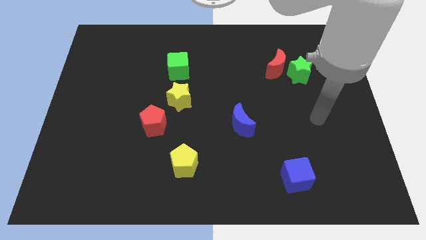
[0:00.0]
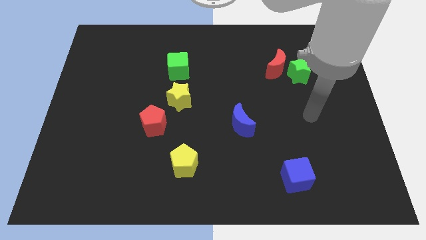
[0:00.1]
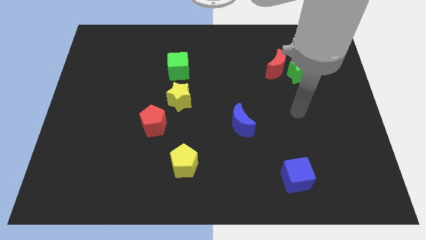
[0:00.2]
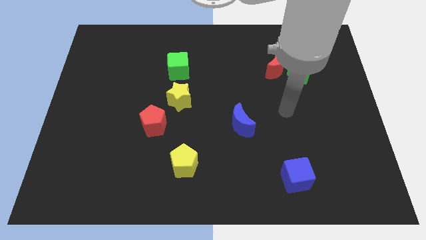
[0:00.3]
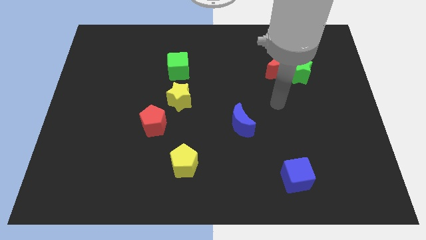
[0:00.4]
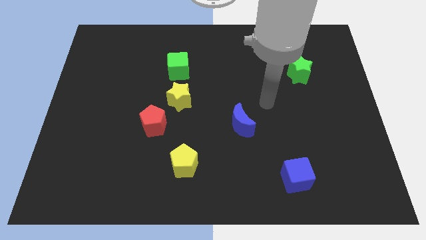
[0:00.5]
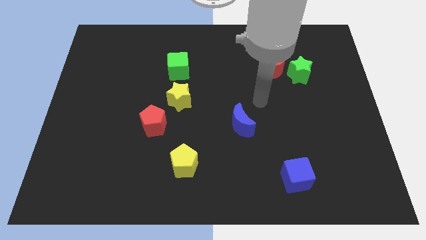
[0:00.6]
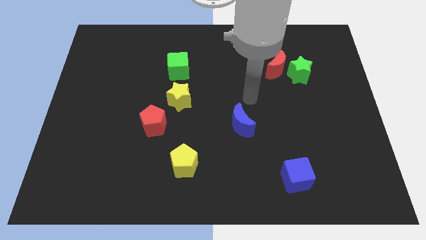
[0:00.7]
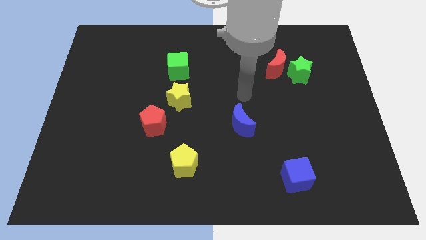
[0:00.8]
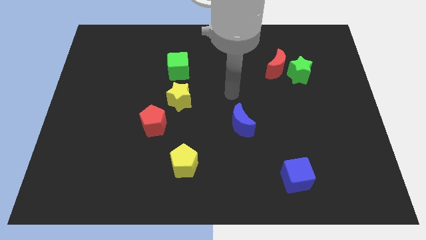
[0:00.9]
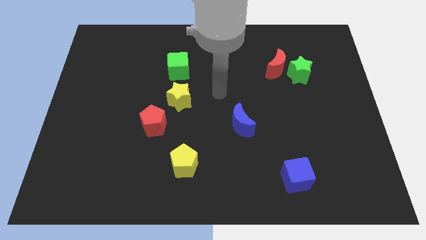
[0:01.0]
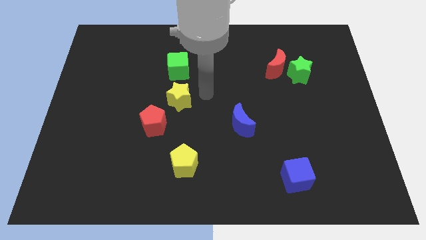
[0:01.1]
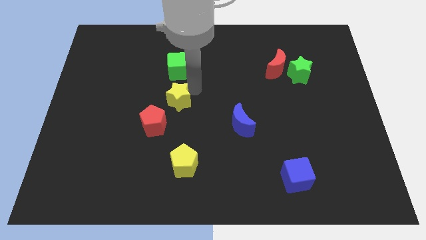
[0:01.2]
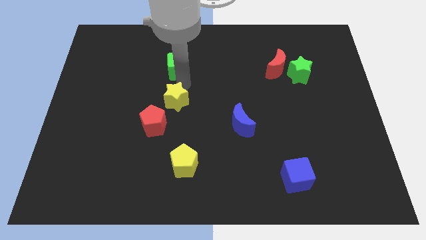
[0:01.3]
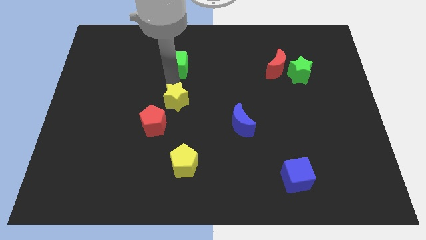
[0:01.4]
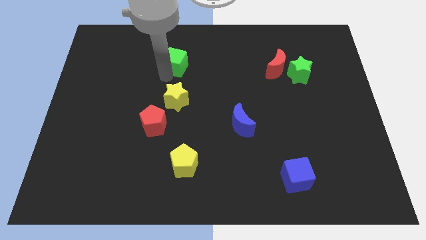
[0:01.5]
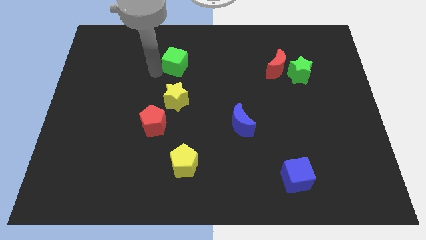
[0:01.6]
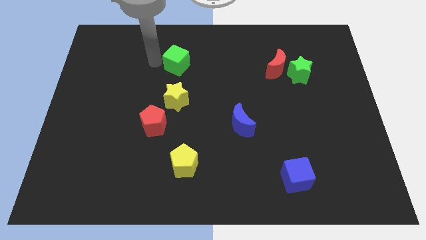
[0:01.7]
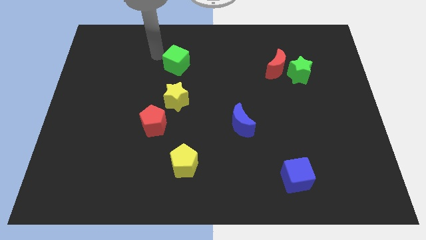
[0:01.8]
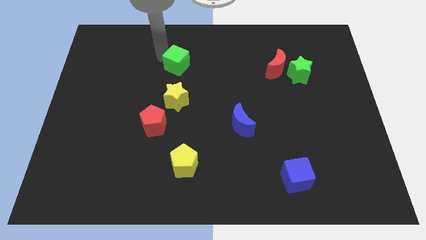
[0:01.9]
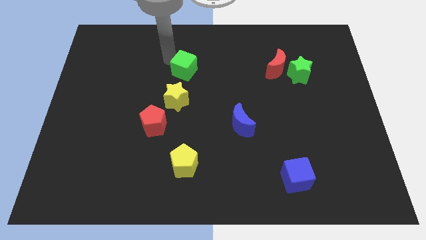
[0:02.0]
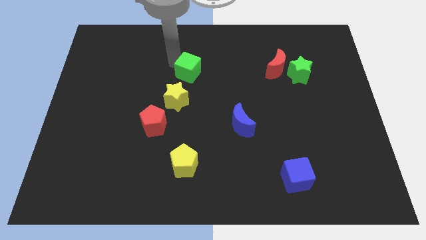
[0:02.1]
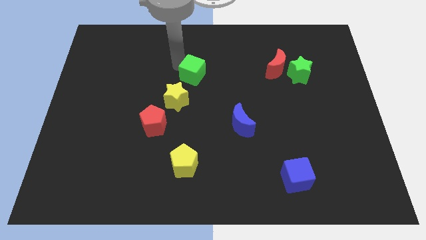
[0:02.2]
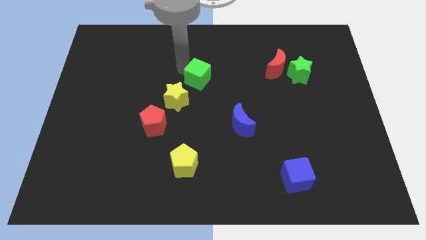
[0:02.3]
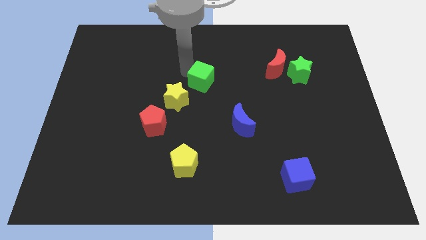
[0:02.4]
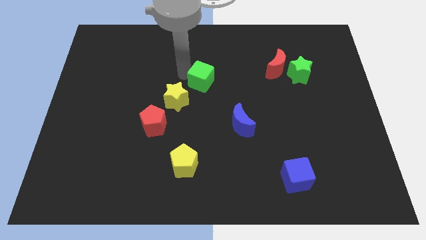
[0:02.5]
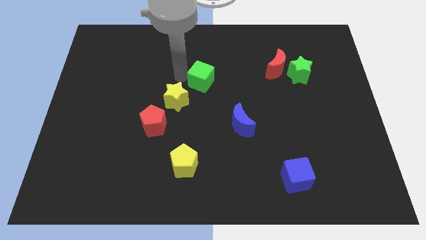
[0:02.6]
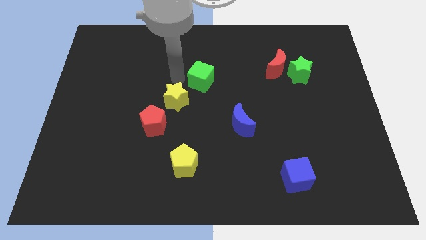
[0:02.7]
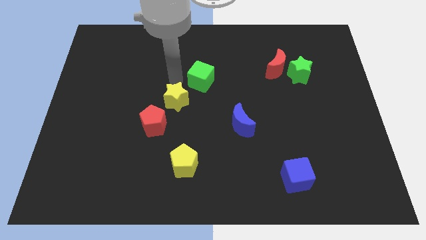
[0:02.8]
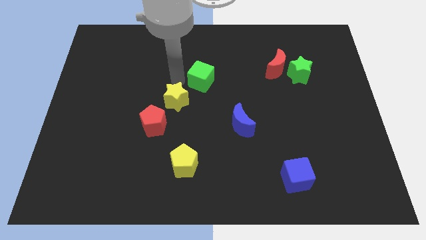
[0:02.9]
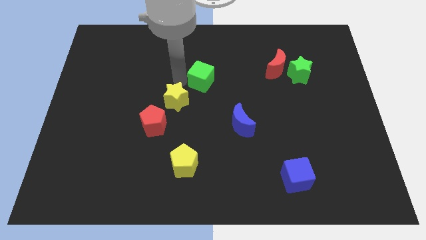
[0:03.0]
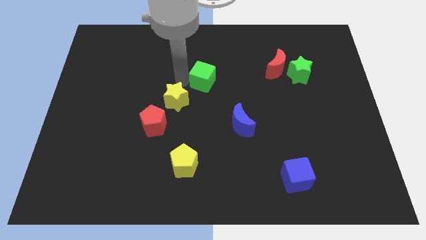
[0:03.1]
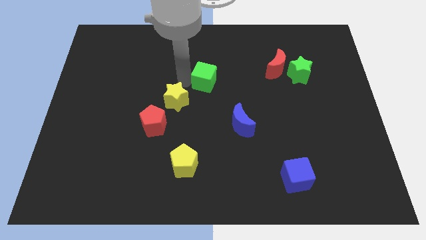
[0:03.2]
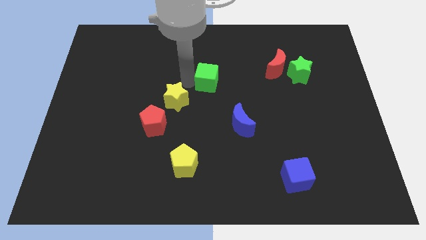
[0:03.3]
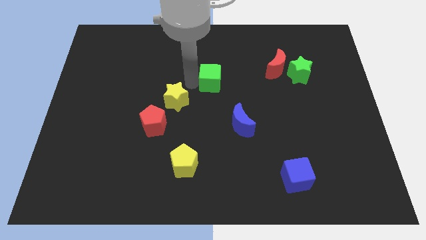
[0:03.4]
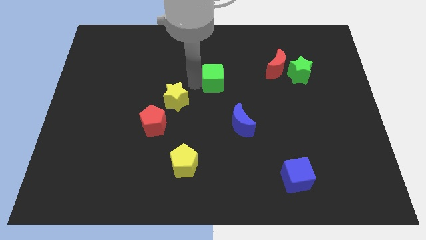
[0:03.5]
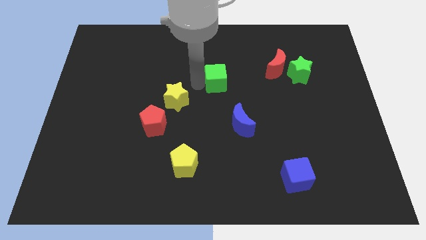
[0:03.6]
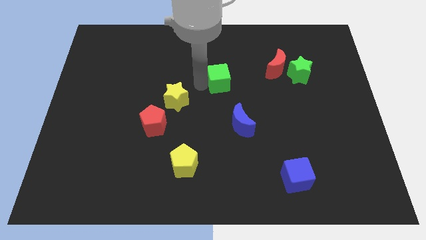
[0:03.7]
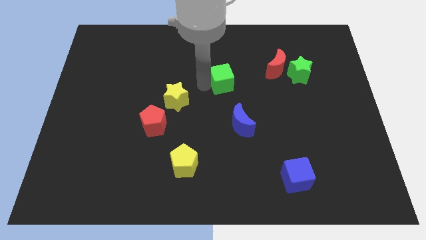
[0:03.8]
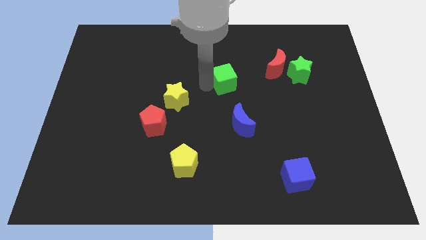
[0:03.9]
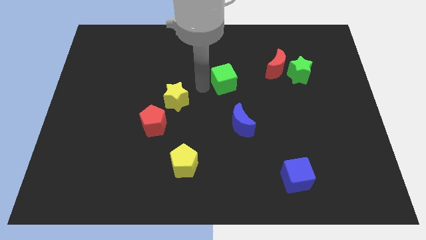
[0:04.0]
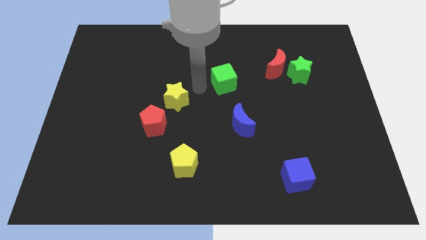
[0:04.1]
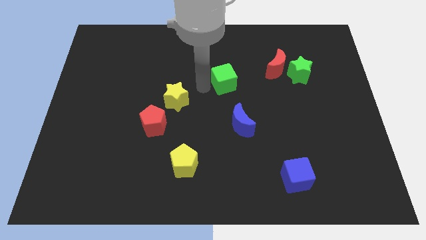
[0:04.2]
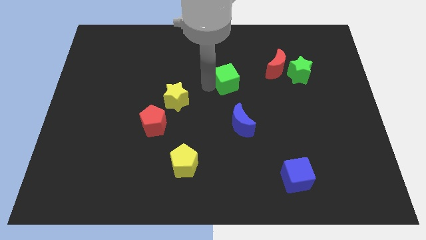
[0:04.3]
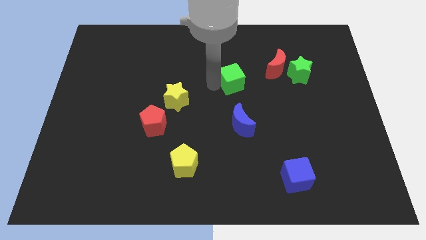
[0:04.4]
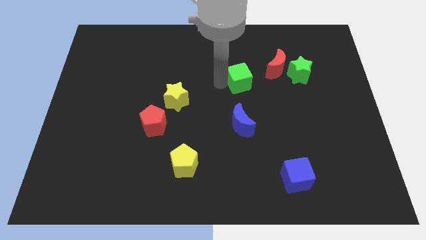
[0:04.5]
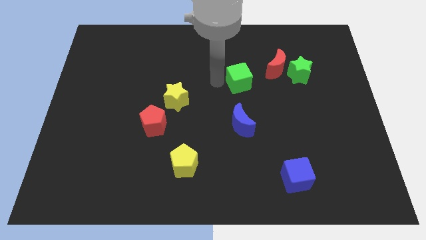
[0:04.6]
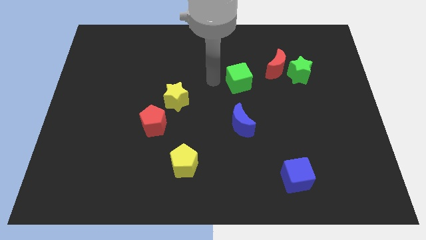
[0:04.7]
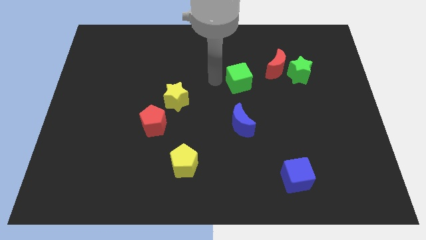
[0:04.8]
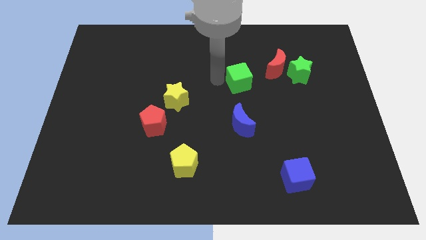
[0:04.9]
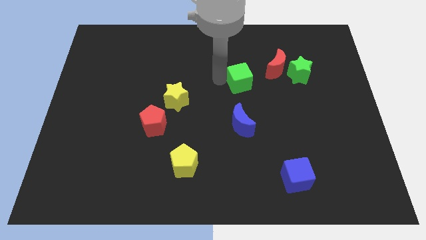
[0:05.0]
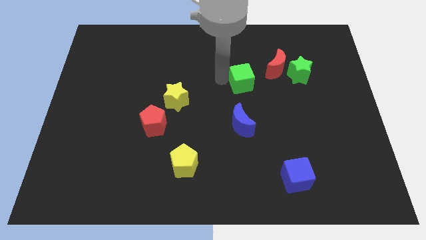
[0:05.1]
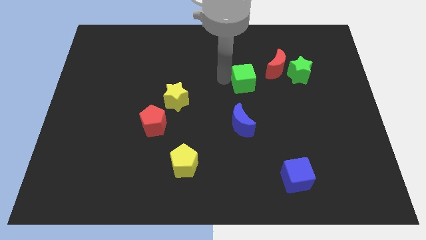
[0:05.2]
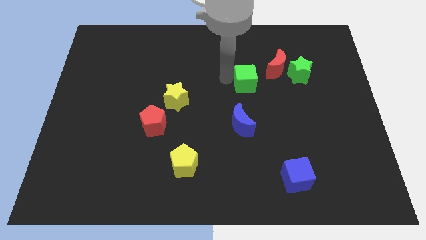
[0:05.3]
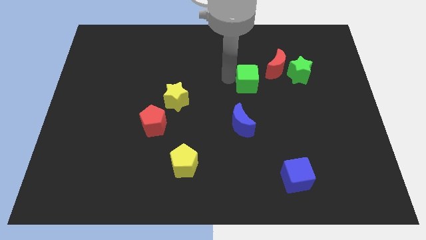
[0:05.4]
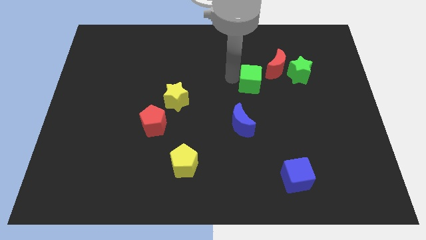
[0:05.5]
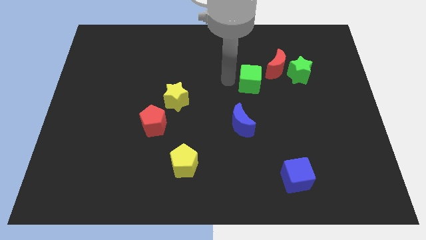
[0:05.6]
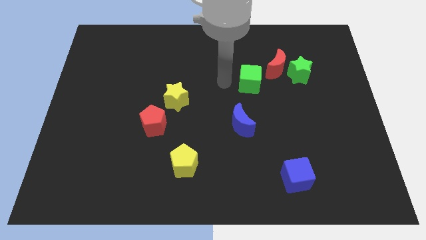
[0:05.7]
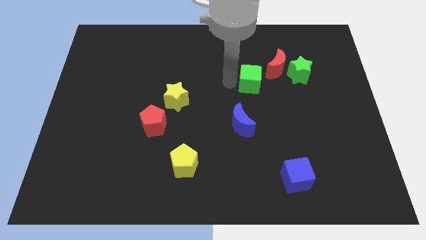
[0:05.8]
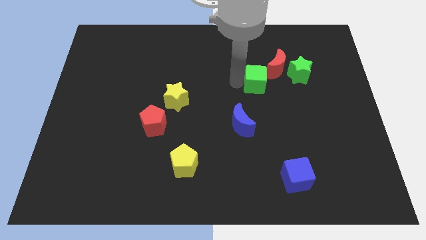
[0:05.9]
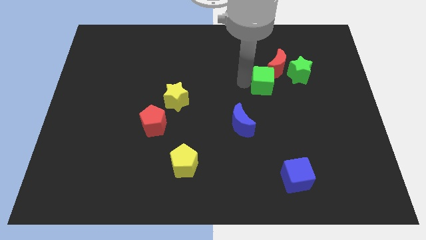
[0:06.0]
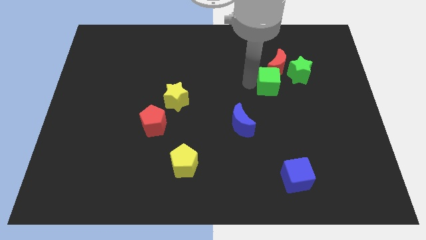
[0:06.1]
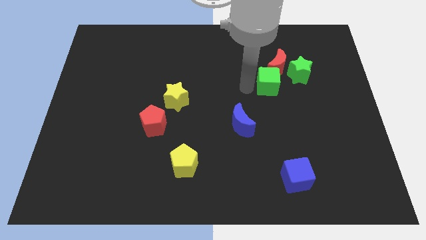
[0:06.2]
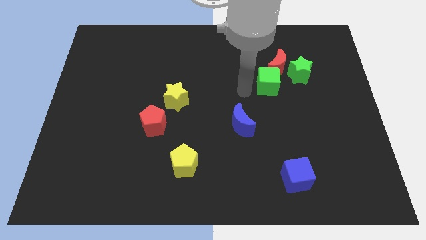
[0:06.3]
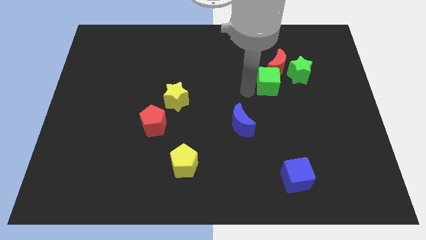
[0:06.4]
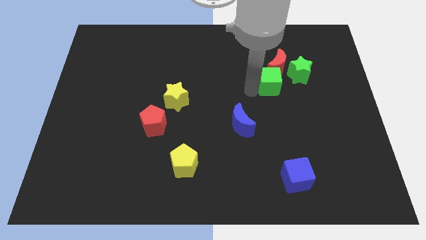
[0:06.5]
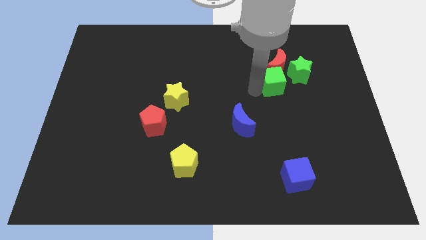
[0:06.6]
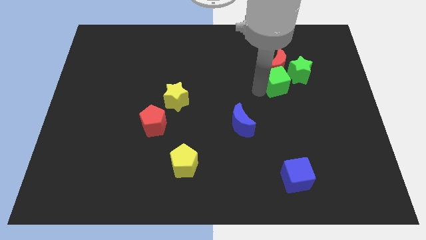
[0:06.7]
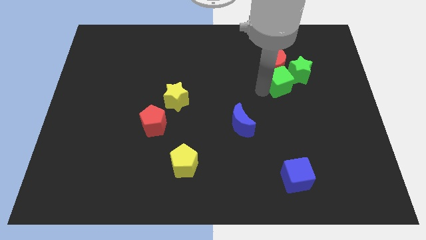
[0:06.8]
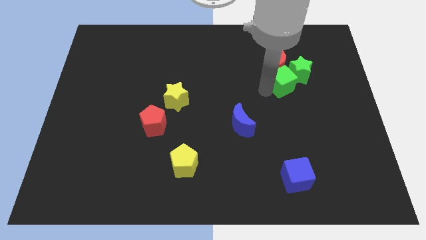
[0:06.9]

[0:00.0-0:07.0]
slide the green cube to the green star
